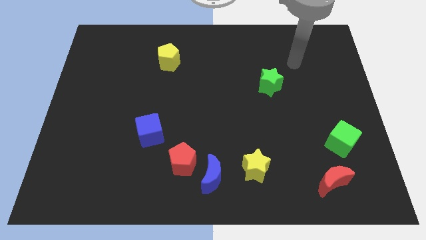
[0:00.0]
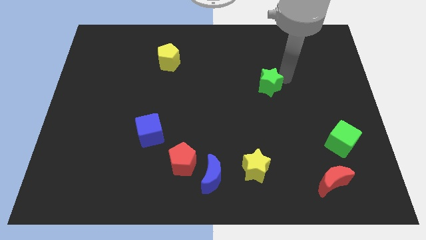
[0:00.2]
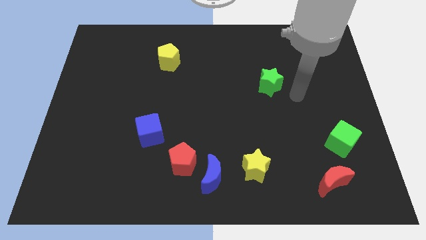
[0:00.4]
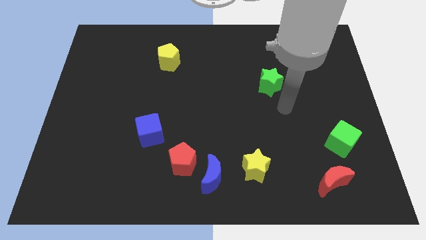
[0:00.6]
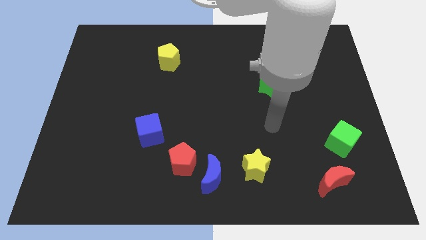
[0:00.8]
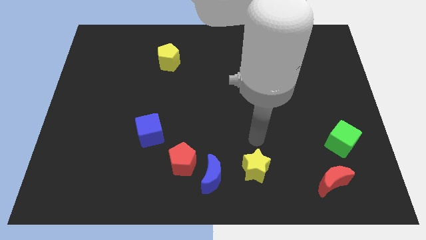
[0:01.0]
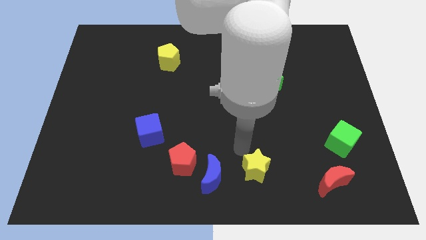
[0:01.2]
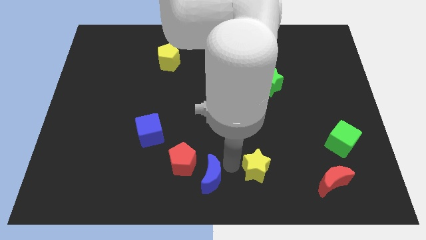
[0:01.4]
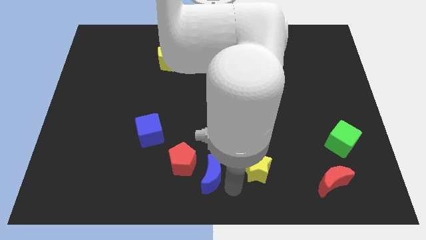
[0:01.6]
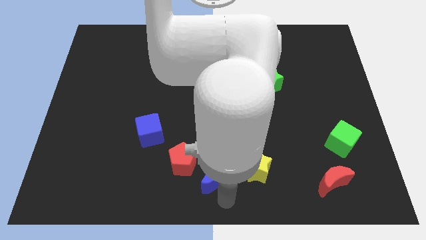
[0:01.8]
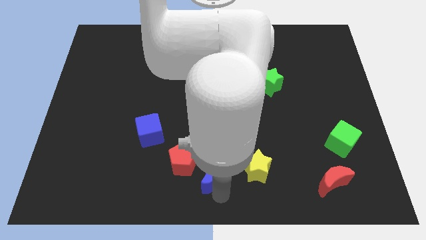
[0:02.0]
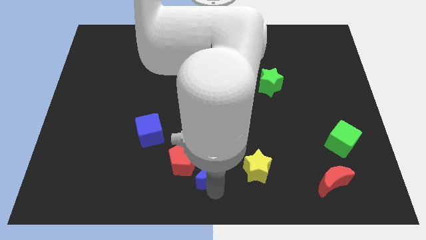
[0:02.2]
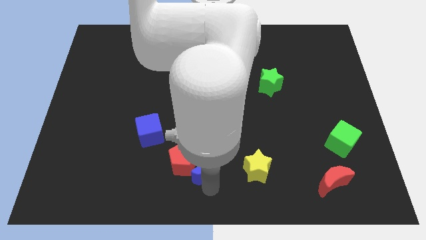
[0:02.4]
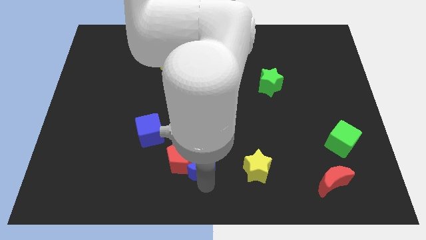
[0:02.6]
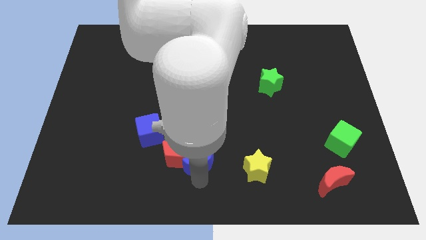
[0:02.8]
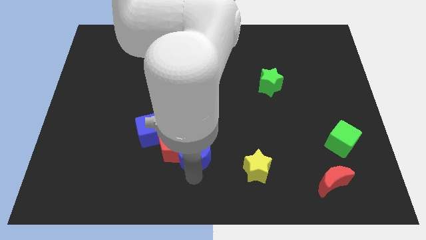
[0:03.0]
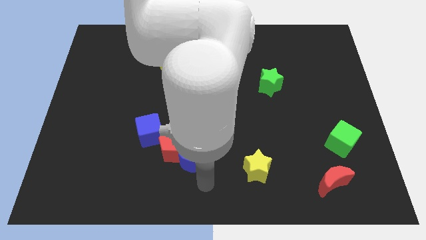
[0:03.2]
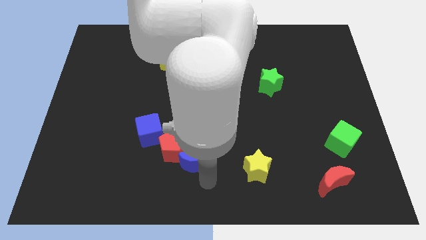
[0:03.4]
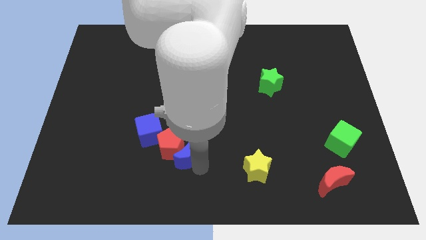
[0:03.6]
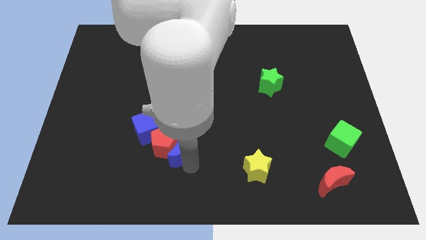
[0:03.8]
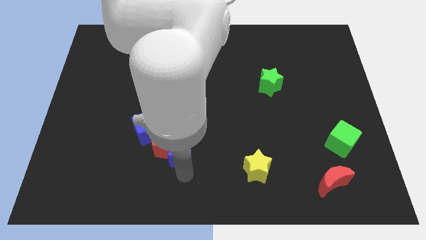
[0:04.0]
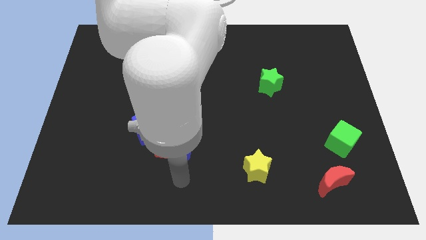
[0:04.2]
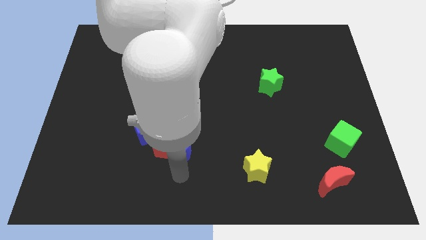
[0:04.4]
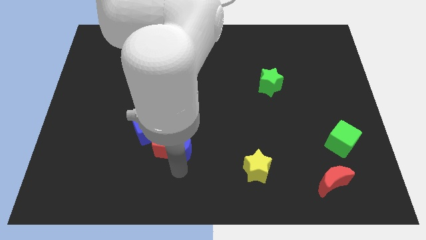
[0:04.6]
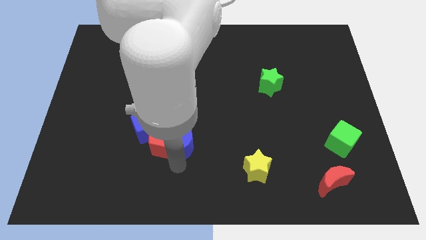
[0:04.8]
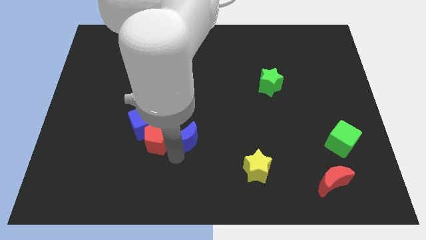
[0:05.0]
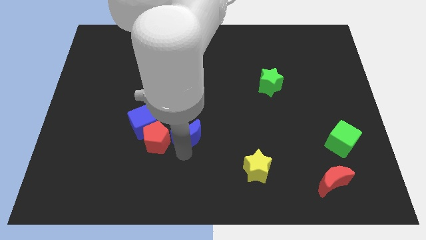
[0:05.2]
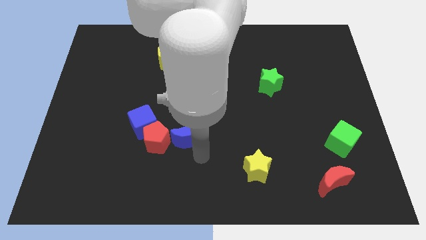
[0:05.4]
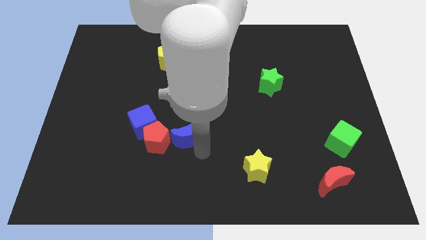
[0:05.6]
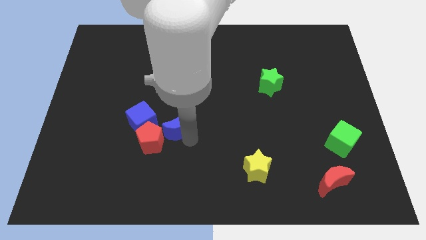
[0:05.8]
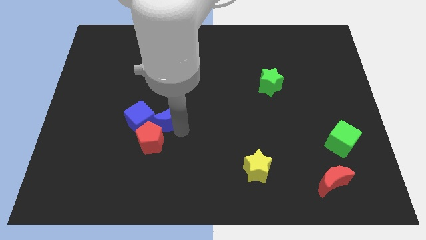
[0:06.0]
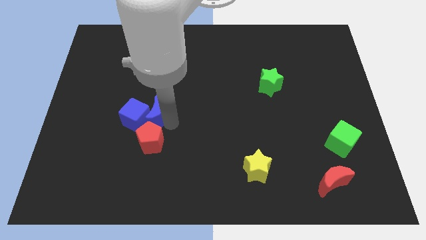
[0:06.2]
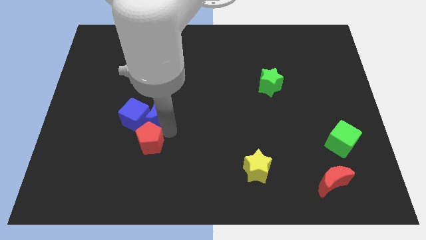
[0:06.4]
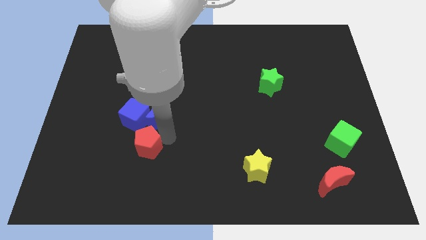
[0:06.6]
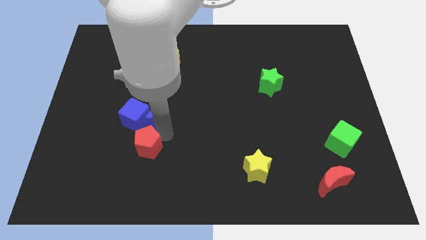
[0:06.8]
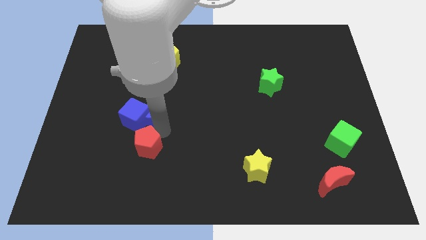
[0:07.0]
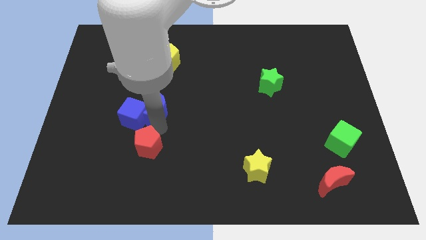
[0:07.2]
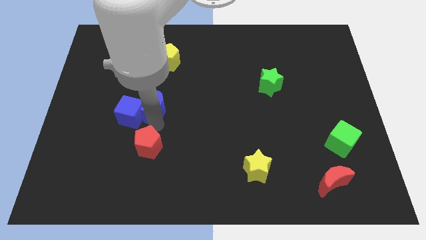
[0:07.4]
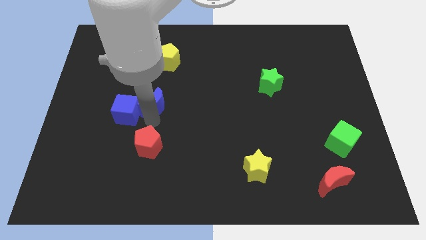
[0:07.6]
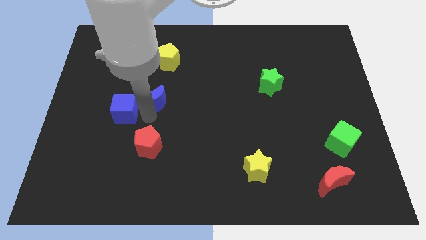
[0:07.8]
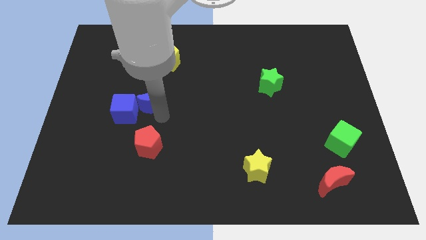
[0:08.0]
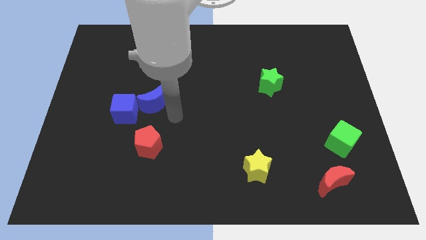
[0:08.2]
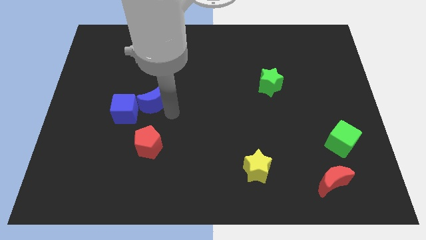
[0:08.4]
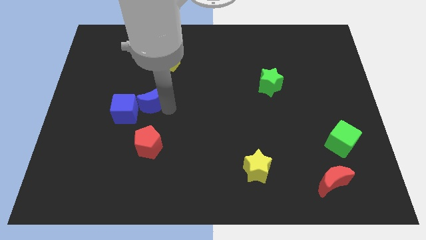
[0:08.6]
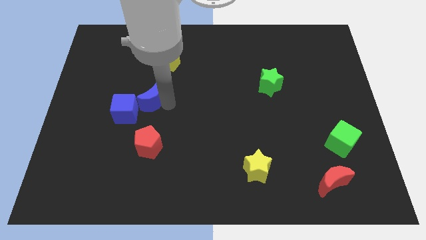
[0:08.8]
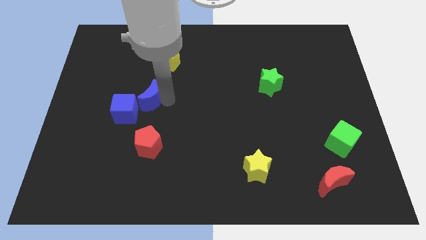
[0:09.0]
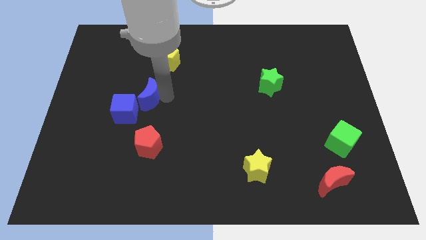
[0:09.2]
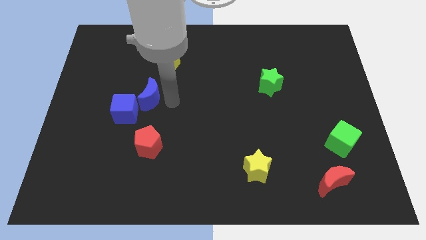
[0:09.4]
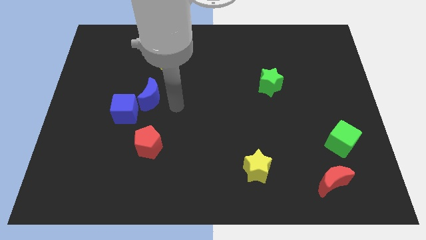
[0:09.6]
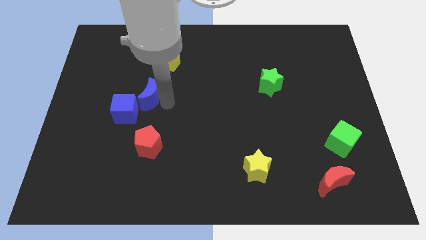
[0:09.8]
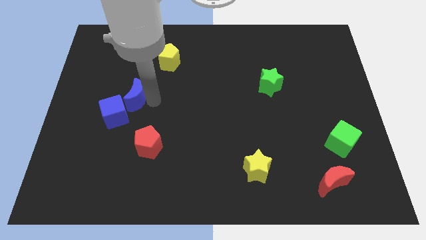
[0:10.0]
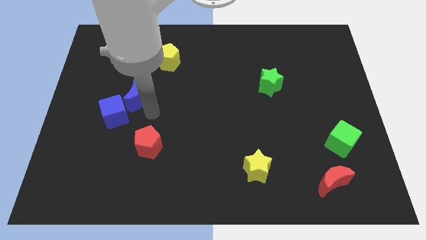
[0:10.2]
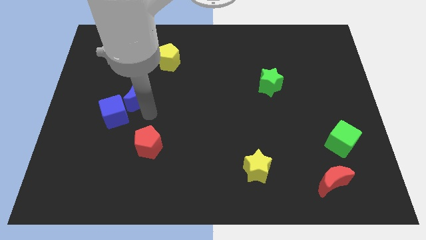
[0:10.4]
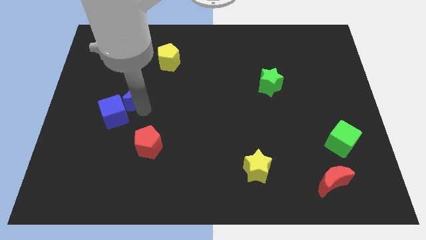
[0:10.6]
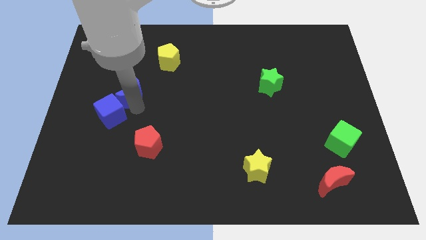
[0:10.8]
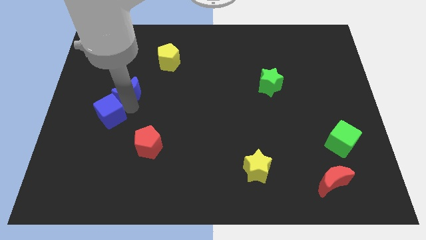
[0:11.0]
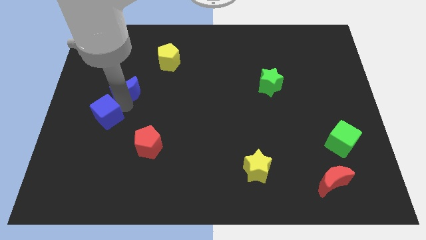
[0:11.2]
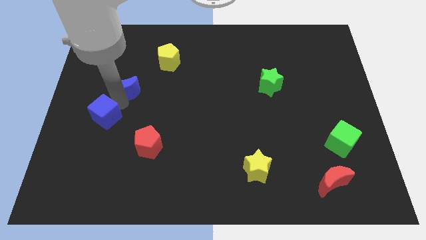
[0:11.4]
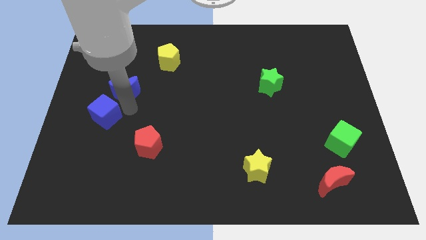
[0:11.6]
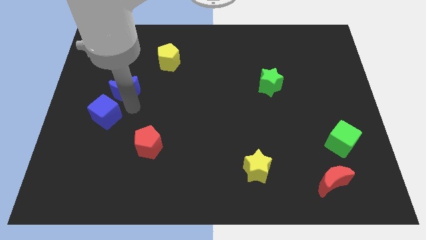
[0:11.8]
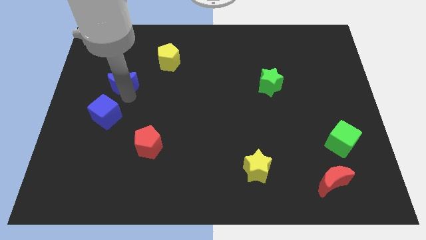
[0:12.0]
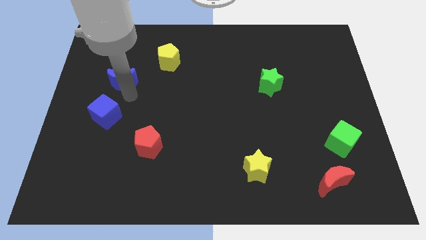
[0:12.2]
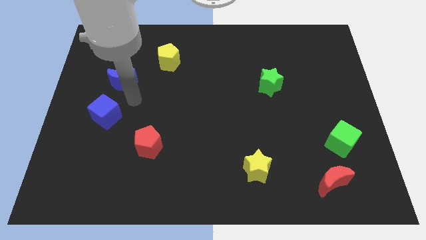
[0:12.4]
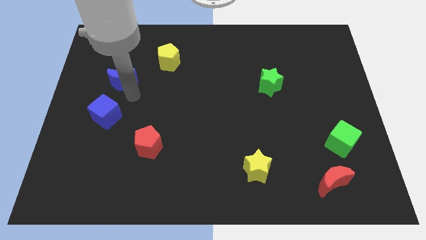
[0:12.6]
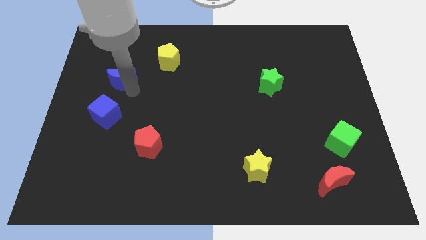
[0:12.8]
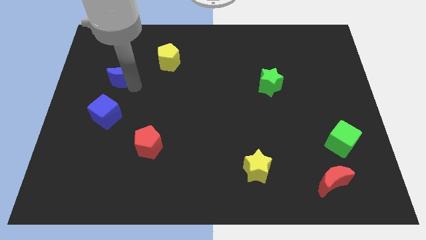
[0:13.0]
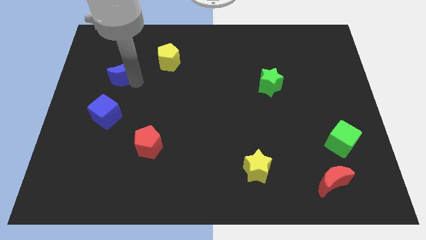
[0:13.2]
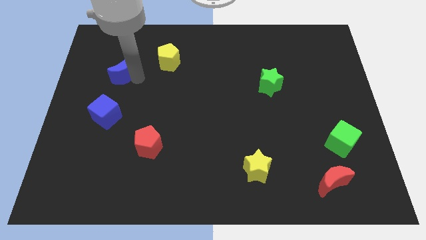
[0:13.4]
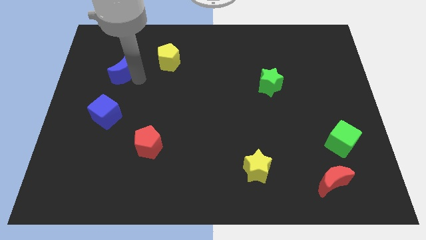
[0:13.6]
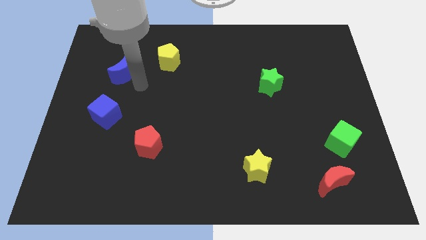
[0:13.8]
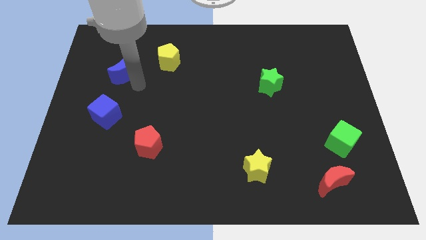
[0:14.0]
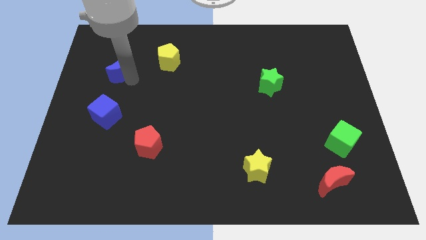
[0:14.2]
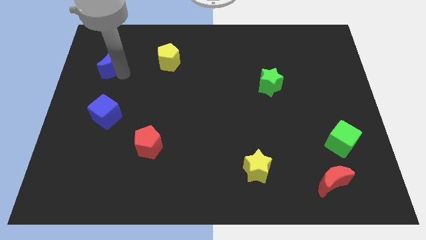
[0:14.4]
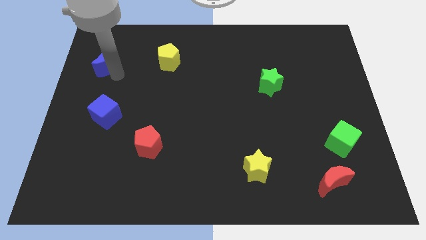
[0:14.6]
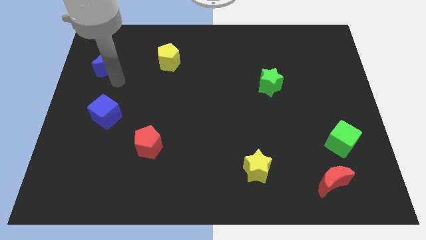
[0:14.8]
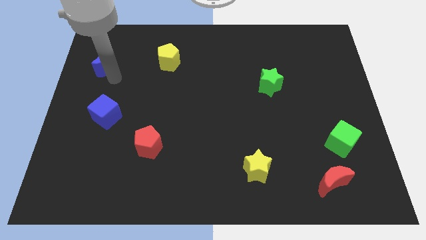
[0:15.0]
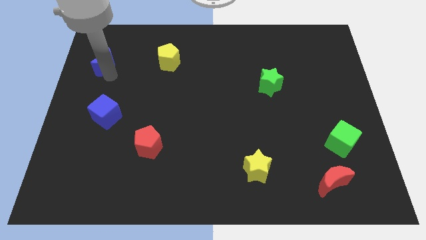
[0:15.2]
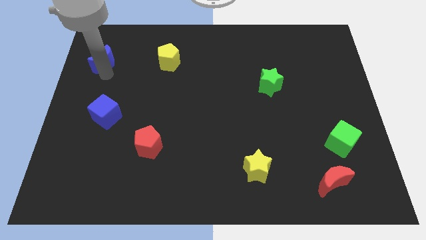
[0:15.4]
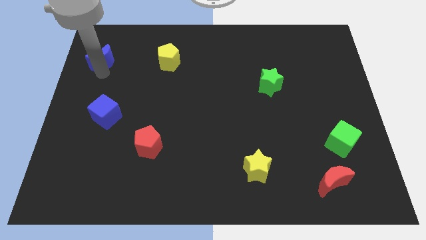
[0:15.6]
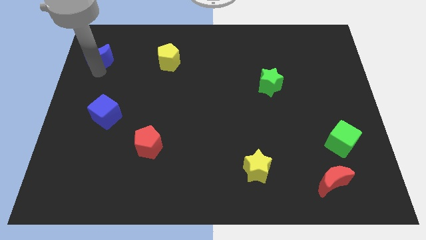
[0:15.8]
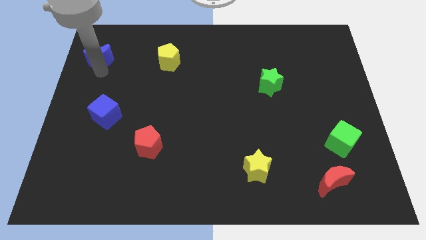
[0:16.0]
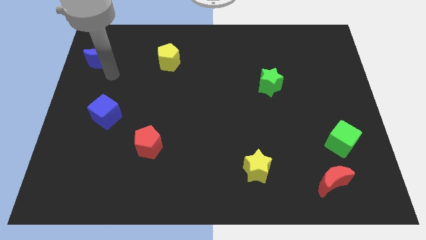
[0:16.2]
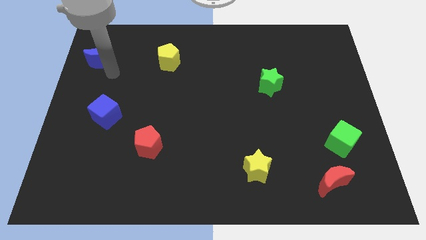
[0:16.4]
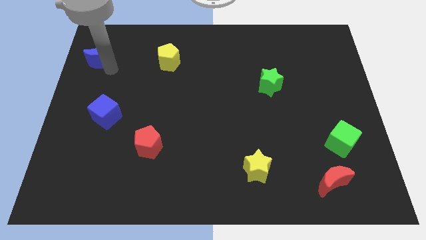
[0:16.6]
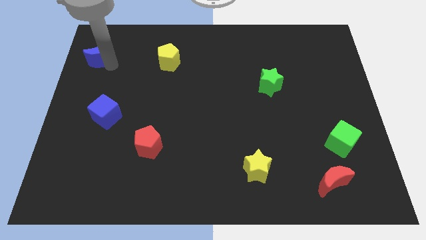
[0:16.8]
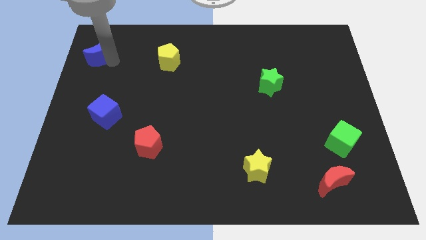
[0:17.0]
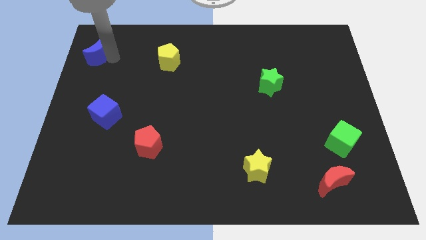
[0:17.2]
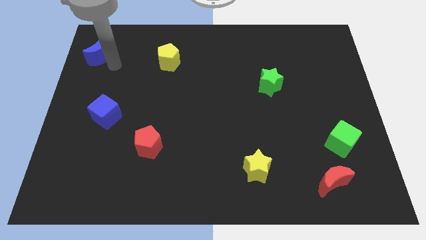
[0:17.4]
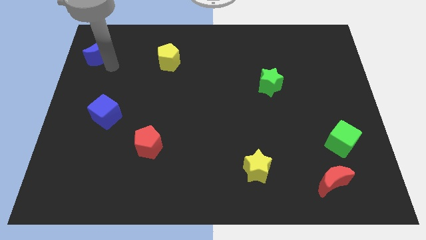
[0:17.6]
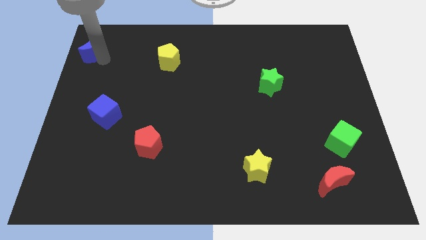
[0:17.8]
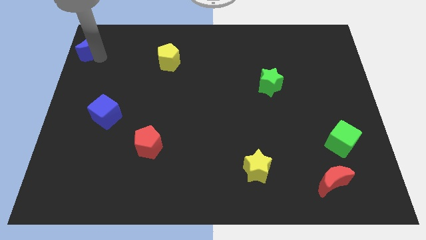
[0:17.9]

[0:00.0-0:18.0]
push the blue moon to the upper left corner
